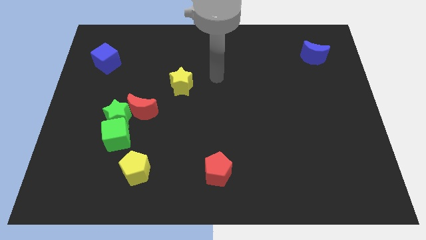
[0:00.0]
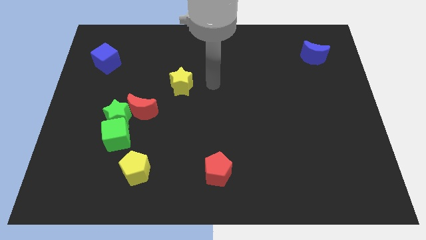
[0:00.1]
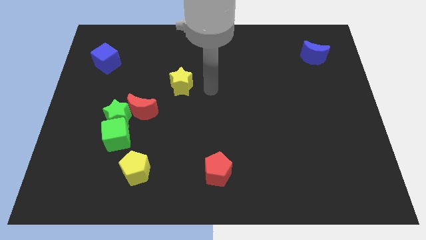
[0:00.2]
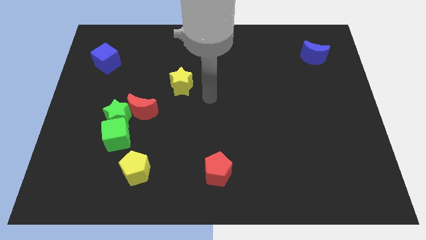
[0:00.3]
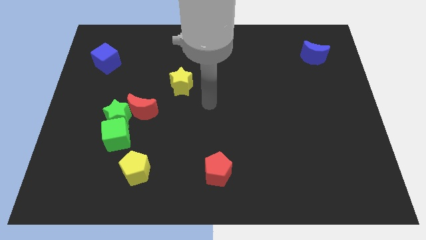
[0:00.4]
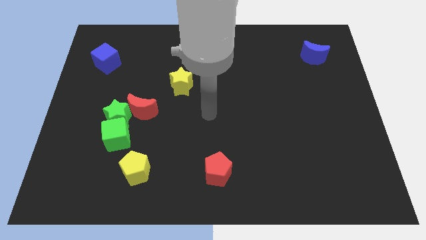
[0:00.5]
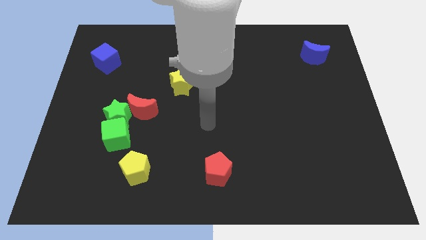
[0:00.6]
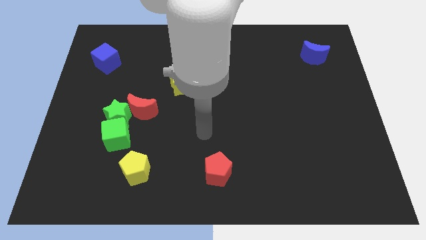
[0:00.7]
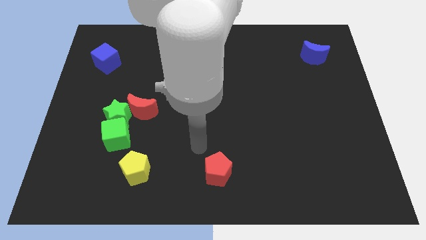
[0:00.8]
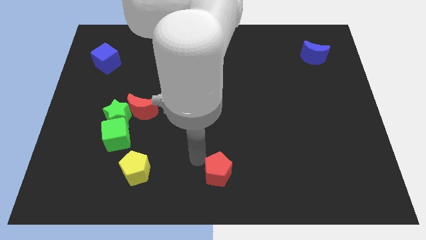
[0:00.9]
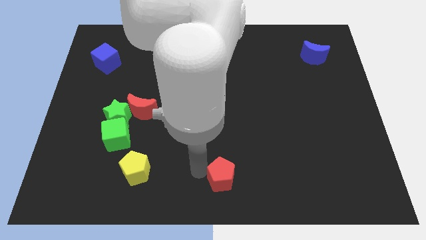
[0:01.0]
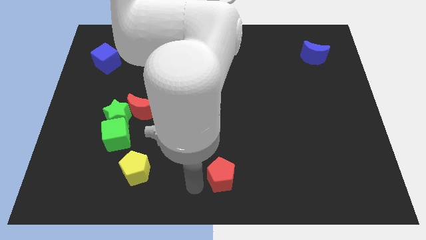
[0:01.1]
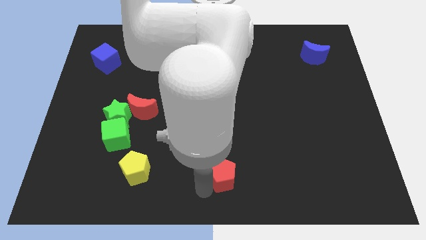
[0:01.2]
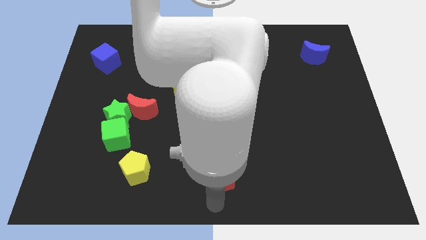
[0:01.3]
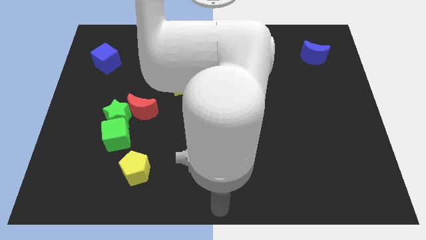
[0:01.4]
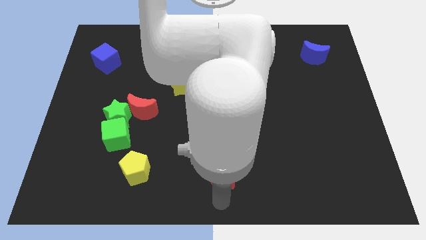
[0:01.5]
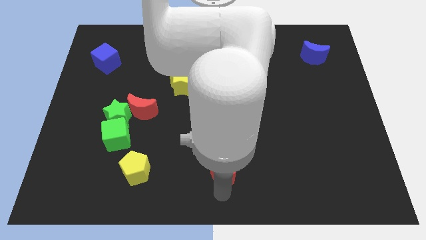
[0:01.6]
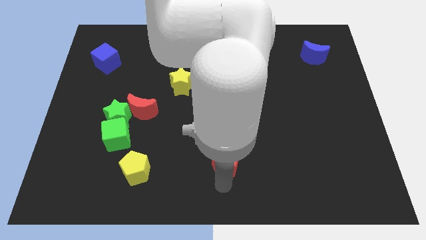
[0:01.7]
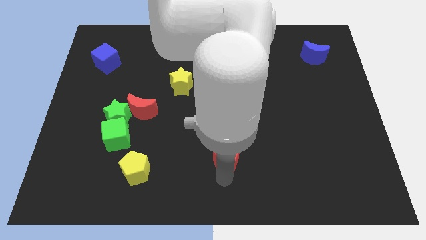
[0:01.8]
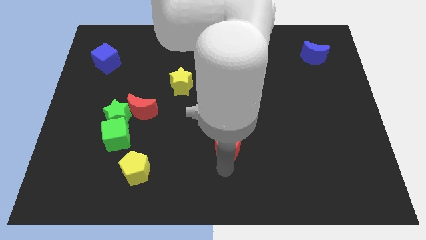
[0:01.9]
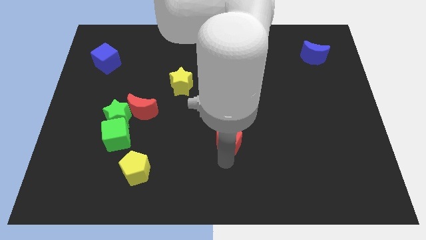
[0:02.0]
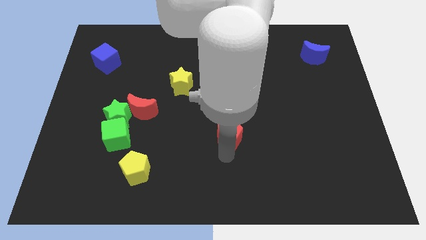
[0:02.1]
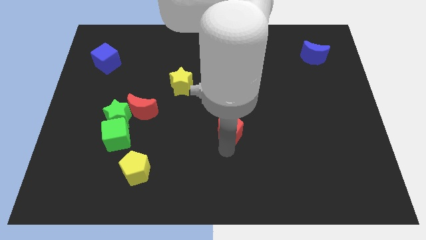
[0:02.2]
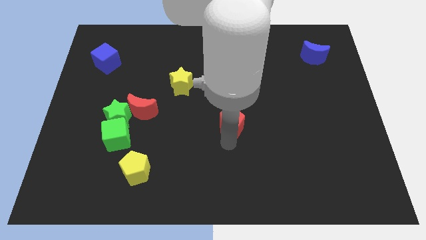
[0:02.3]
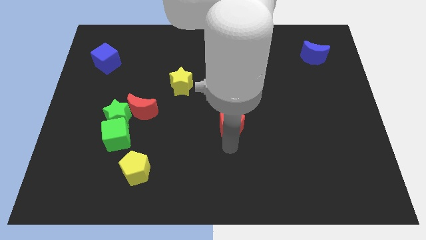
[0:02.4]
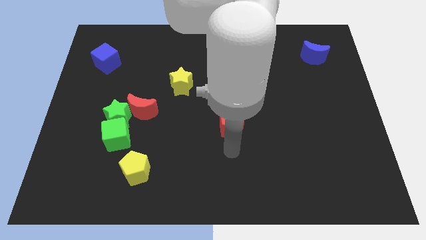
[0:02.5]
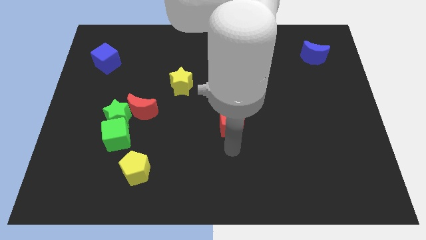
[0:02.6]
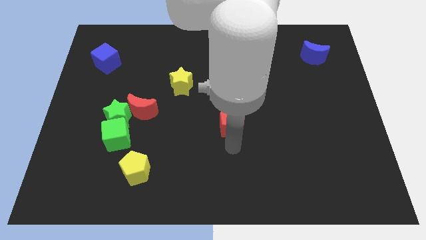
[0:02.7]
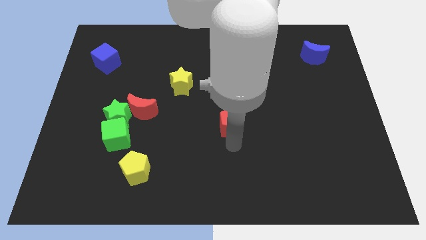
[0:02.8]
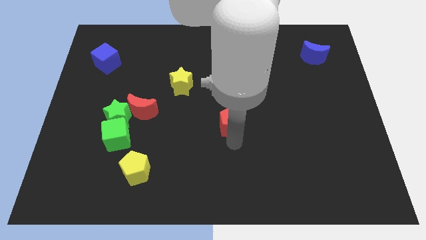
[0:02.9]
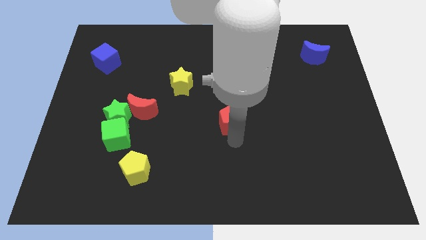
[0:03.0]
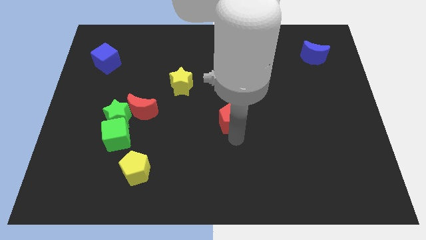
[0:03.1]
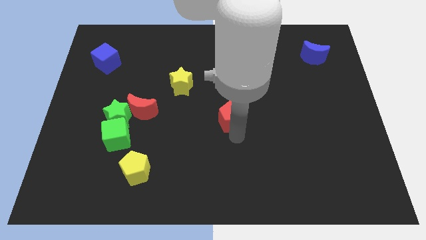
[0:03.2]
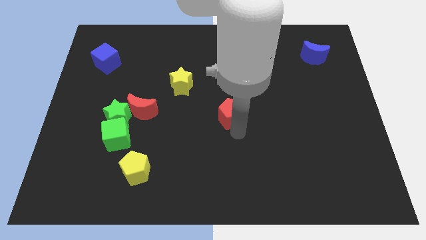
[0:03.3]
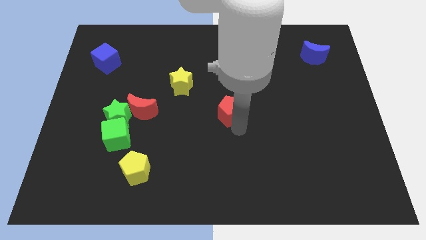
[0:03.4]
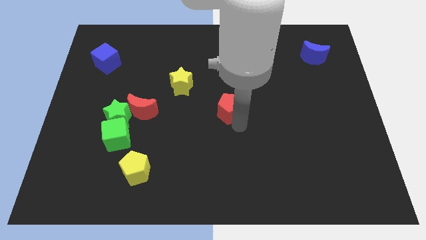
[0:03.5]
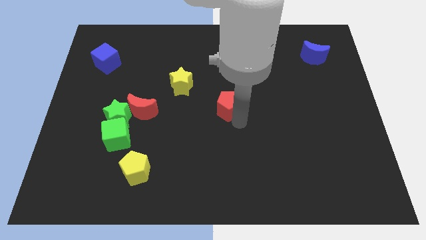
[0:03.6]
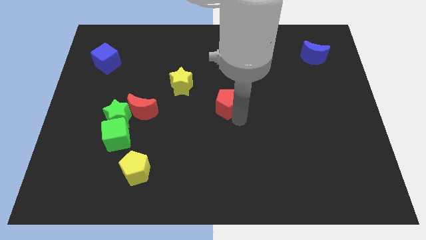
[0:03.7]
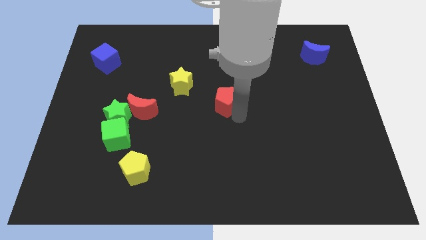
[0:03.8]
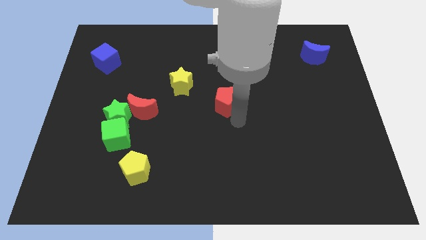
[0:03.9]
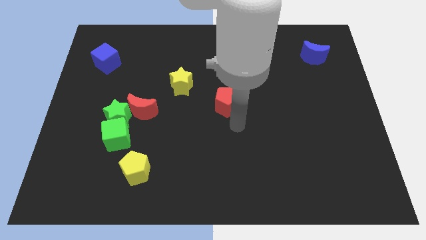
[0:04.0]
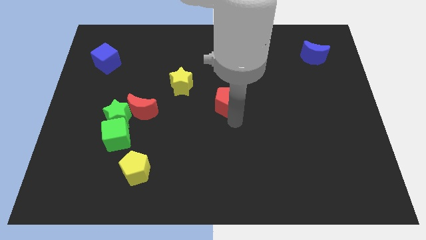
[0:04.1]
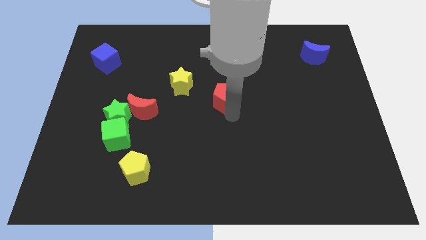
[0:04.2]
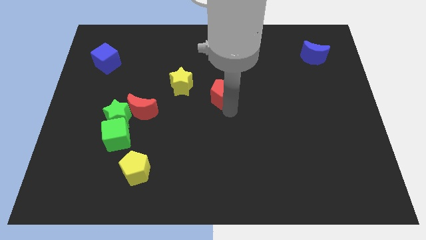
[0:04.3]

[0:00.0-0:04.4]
push the red pentagon upwards

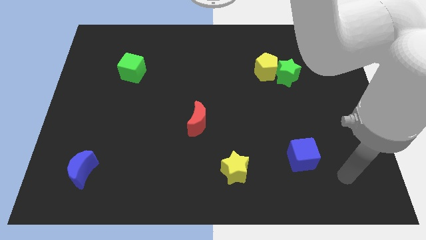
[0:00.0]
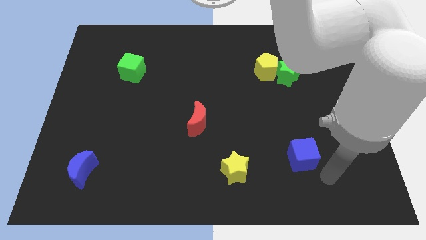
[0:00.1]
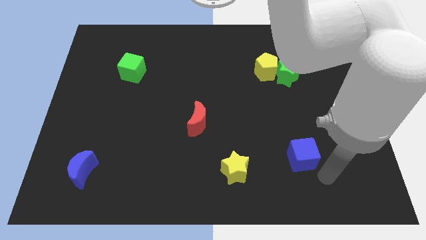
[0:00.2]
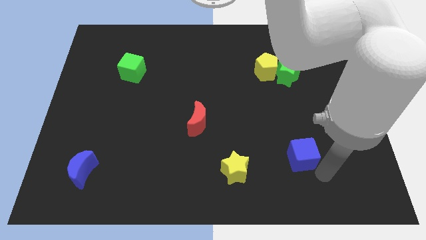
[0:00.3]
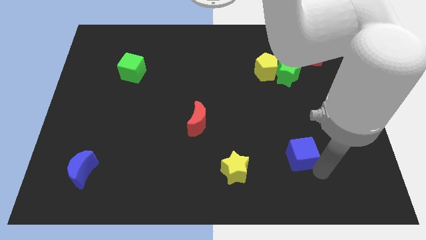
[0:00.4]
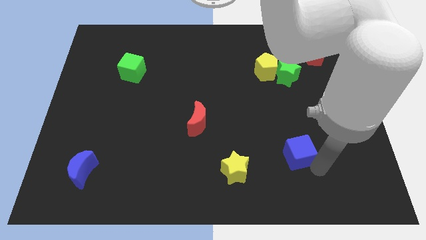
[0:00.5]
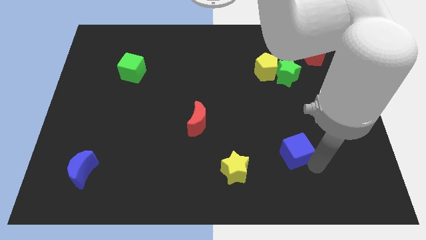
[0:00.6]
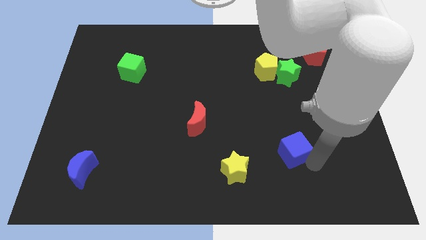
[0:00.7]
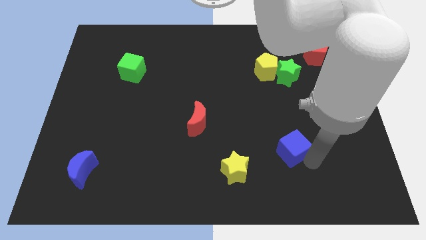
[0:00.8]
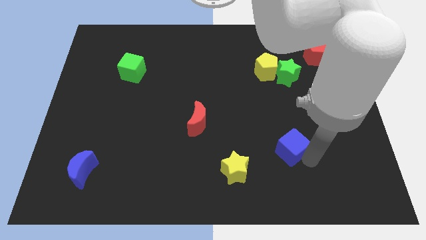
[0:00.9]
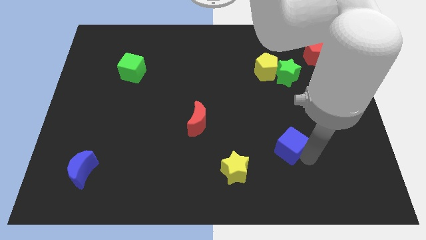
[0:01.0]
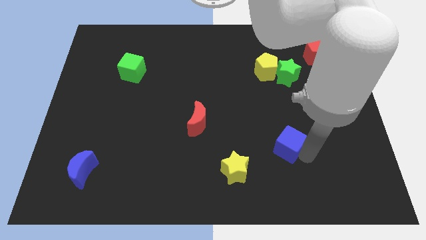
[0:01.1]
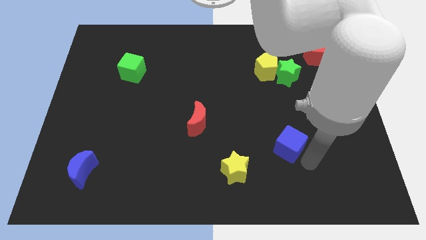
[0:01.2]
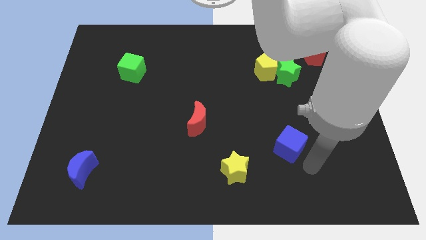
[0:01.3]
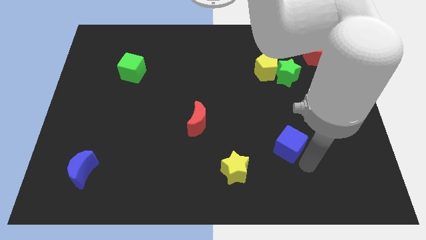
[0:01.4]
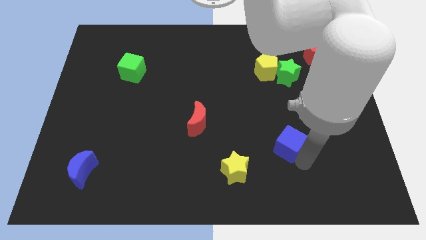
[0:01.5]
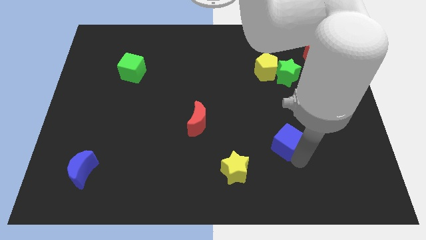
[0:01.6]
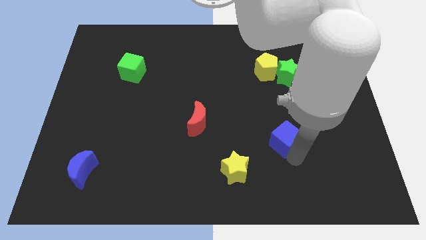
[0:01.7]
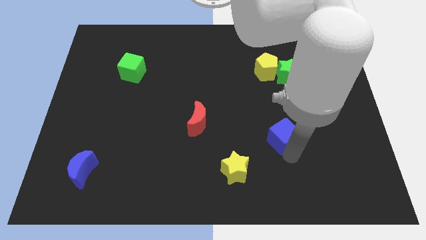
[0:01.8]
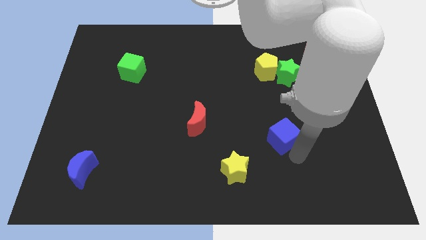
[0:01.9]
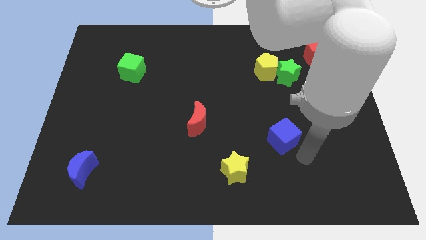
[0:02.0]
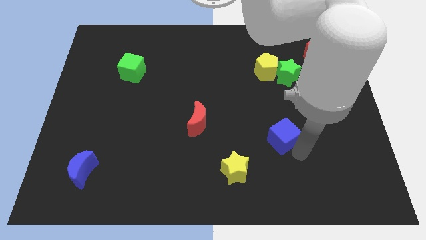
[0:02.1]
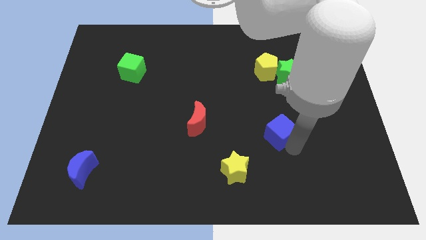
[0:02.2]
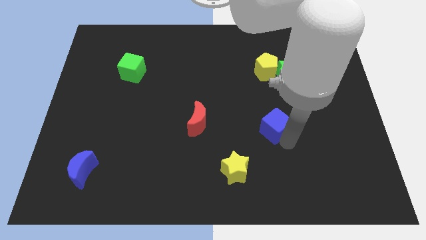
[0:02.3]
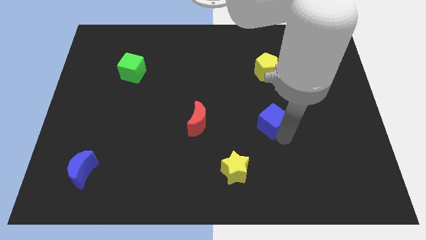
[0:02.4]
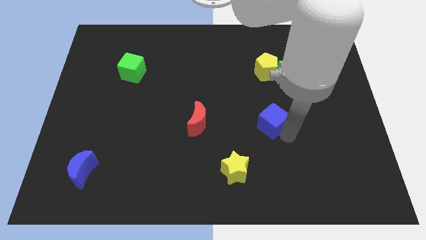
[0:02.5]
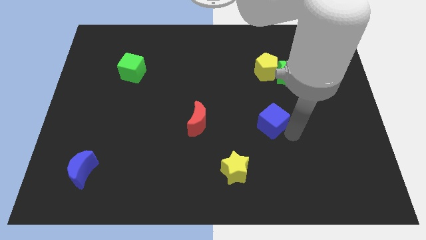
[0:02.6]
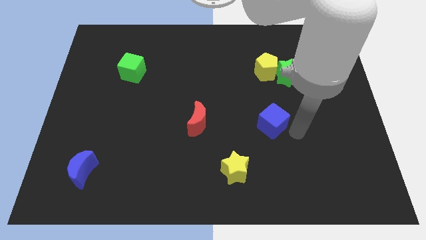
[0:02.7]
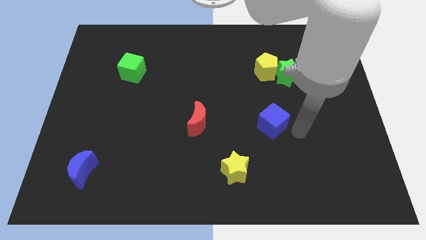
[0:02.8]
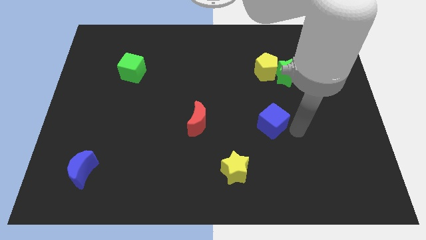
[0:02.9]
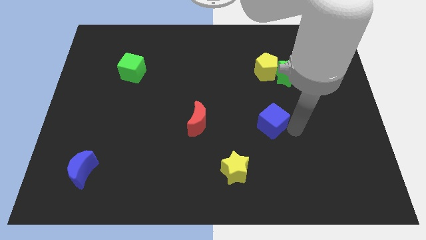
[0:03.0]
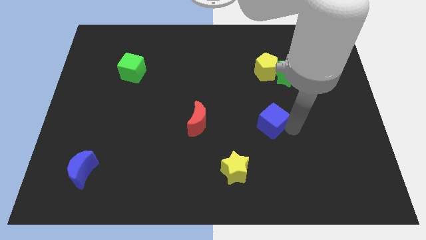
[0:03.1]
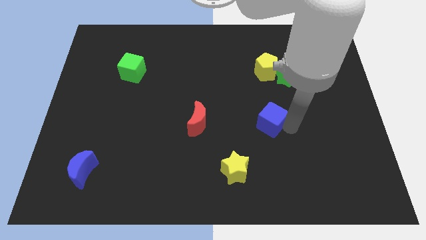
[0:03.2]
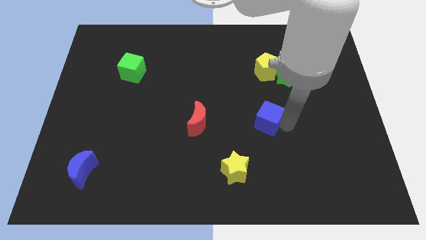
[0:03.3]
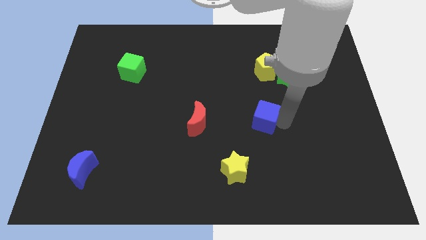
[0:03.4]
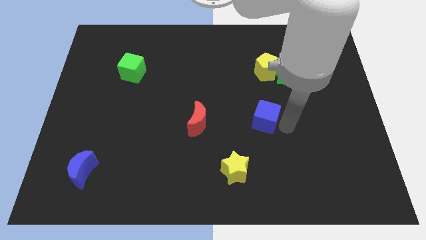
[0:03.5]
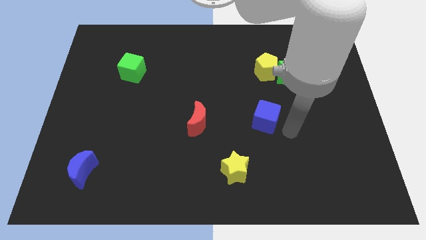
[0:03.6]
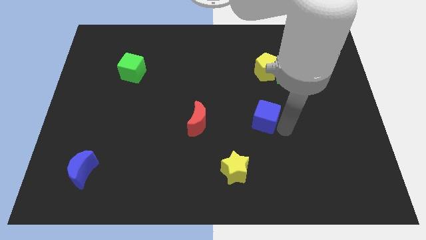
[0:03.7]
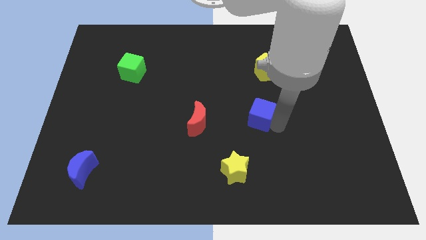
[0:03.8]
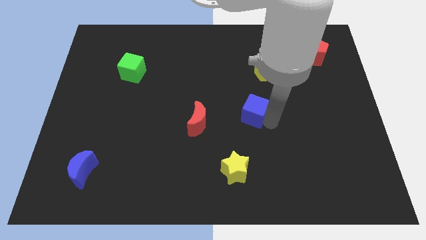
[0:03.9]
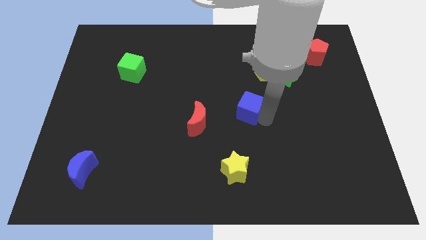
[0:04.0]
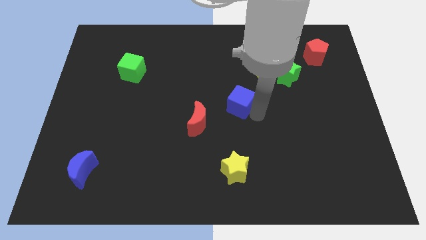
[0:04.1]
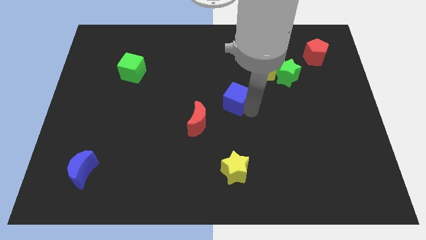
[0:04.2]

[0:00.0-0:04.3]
slide the blue cube upwards and to the left
